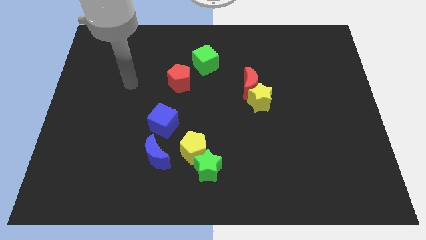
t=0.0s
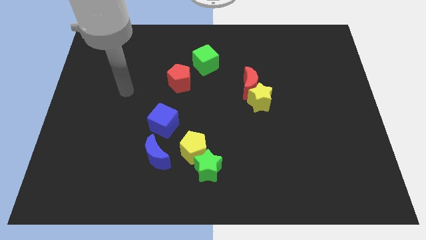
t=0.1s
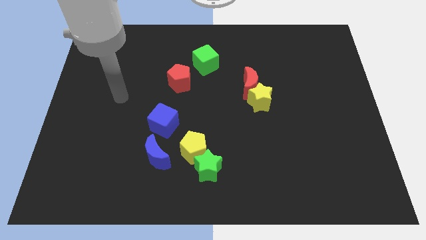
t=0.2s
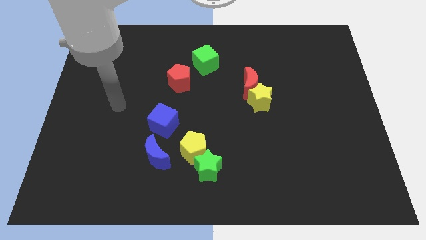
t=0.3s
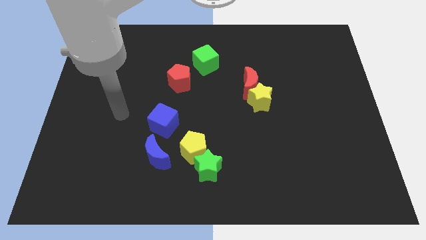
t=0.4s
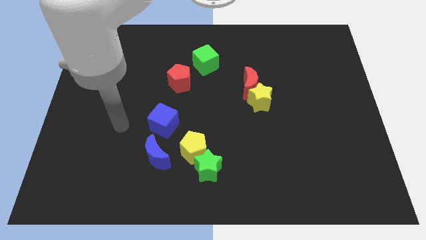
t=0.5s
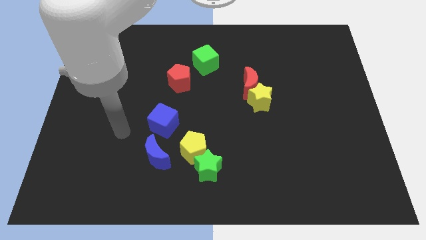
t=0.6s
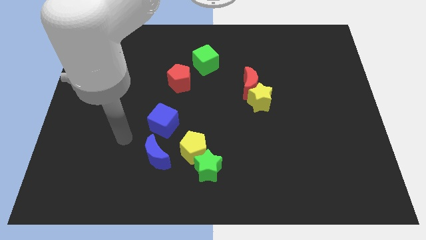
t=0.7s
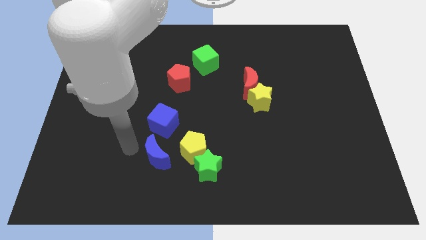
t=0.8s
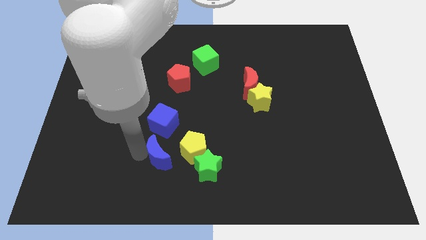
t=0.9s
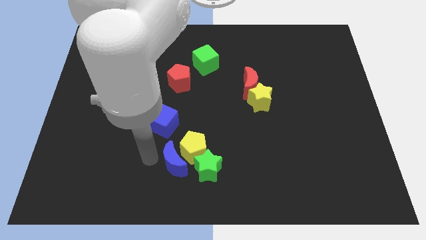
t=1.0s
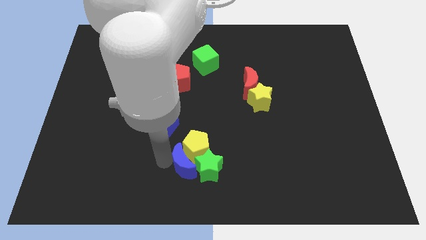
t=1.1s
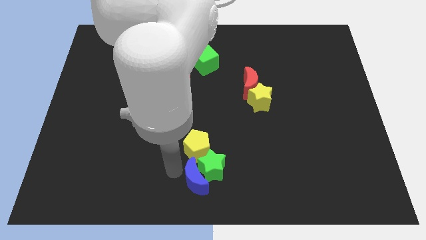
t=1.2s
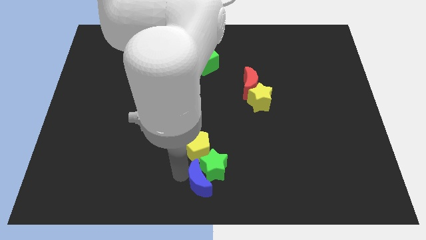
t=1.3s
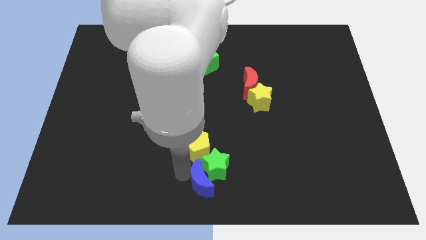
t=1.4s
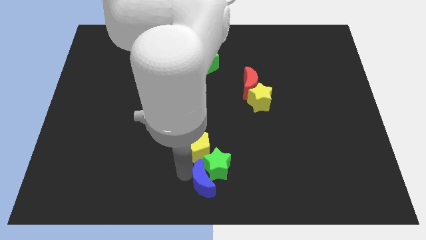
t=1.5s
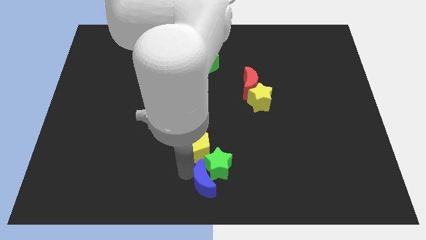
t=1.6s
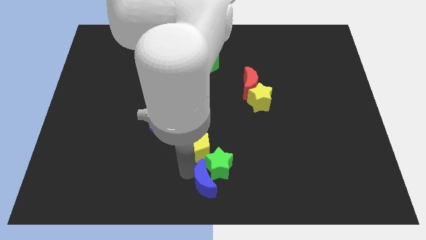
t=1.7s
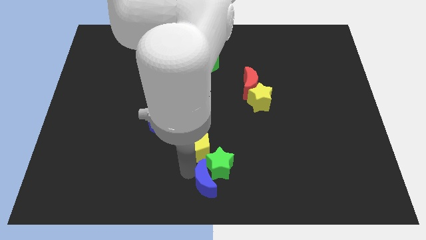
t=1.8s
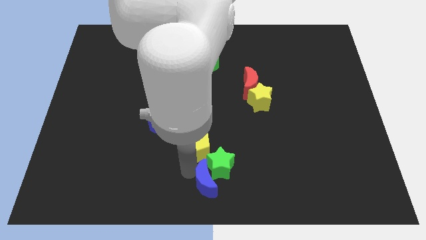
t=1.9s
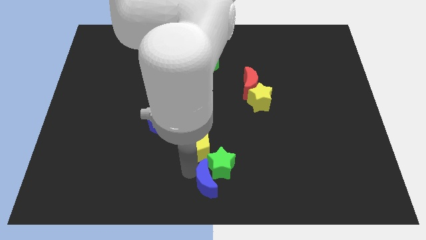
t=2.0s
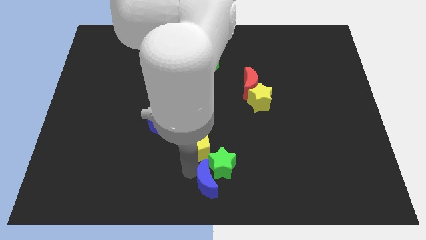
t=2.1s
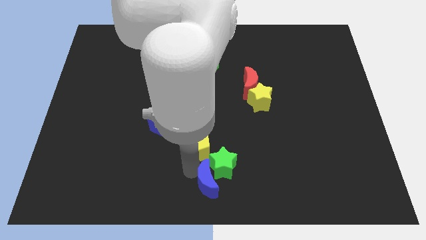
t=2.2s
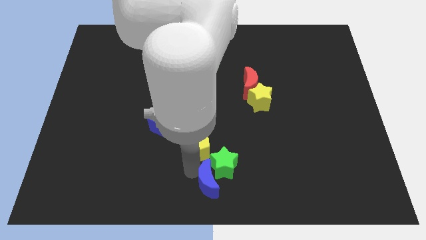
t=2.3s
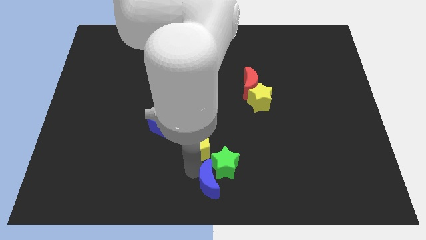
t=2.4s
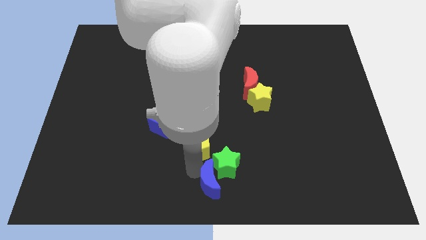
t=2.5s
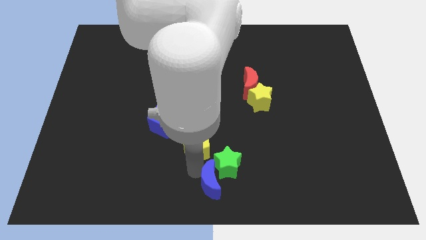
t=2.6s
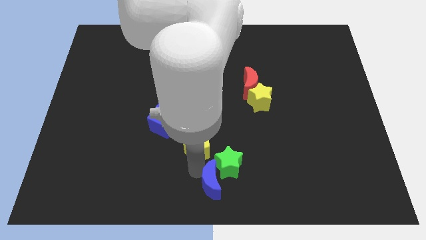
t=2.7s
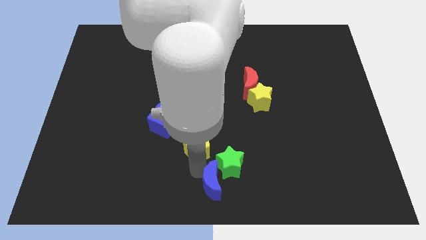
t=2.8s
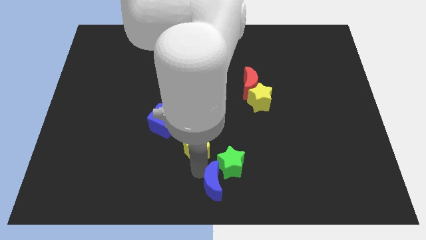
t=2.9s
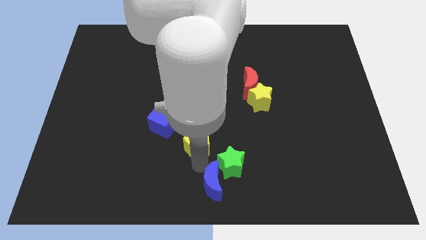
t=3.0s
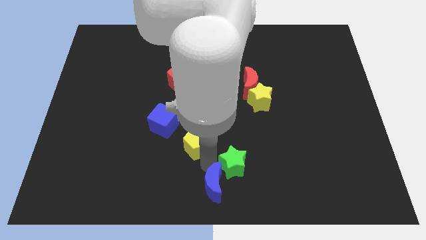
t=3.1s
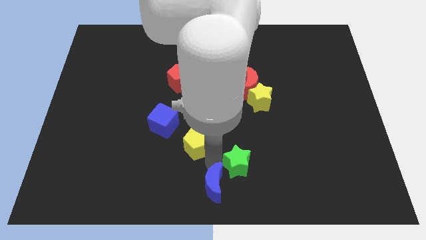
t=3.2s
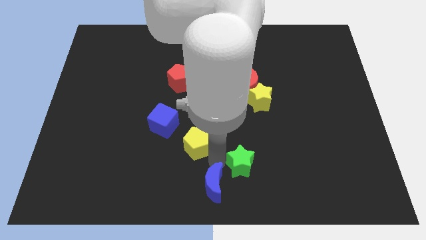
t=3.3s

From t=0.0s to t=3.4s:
push the green star a bit right

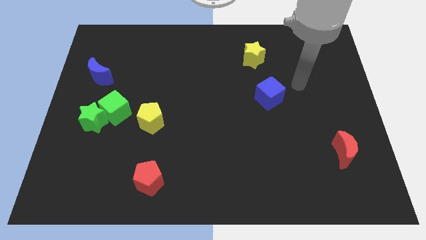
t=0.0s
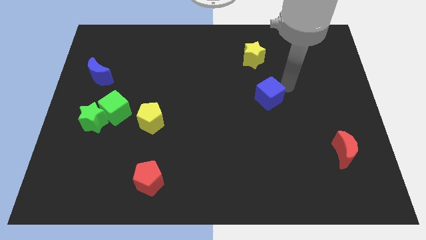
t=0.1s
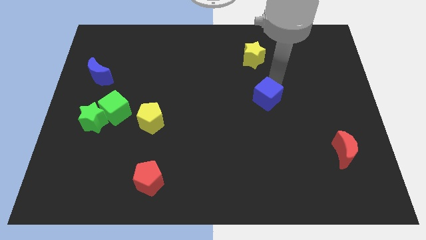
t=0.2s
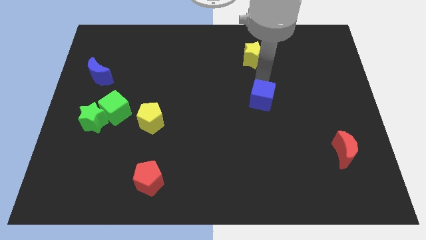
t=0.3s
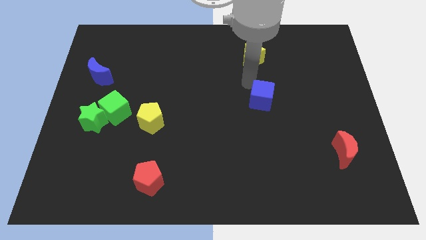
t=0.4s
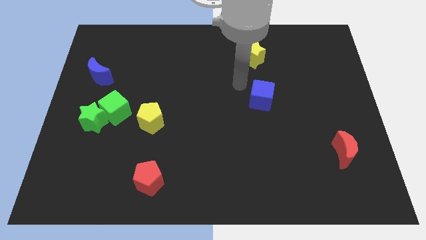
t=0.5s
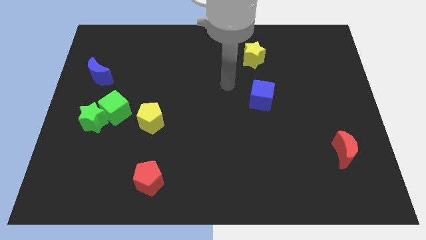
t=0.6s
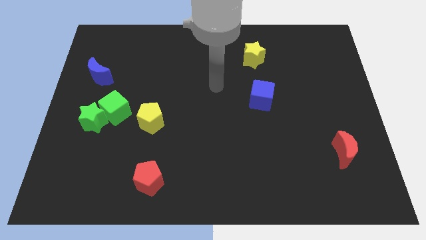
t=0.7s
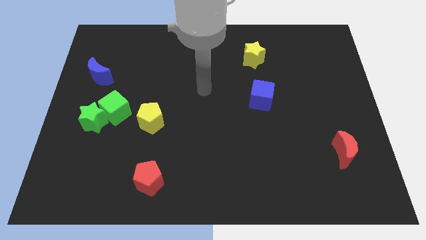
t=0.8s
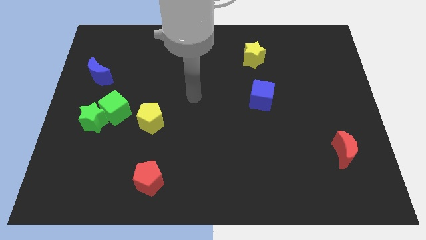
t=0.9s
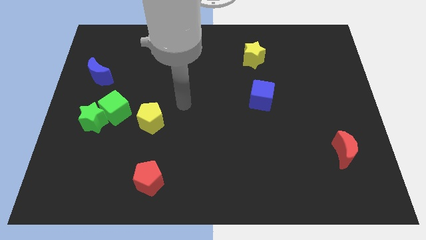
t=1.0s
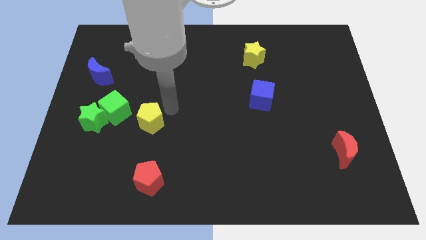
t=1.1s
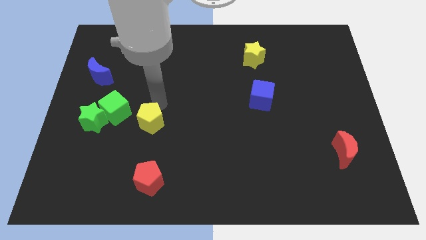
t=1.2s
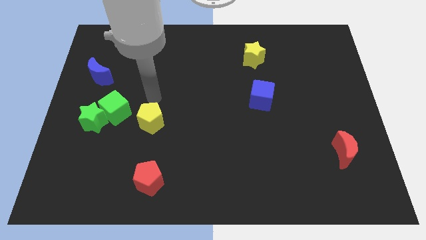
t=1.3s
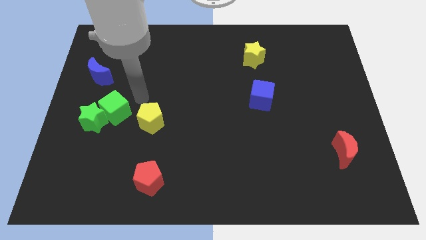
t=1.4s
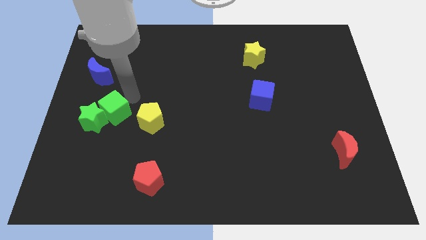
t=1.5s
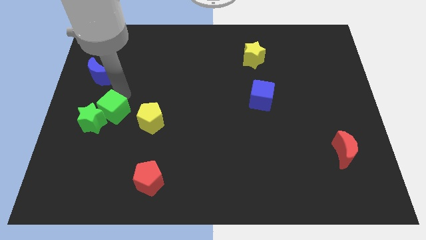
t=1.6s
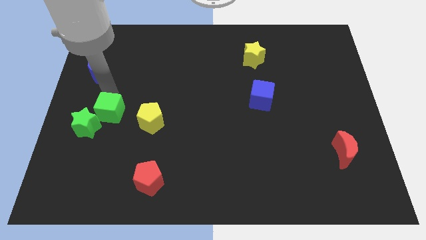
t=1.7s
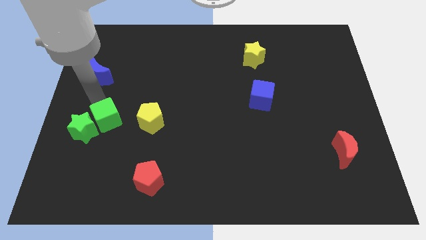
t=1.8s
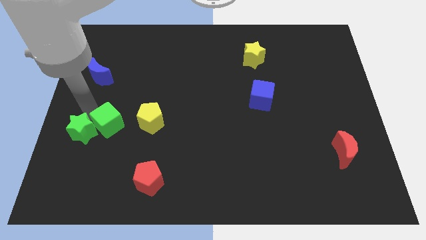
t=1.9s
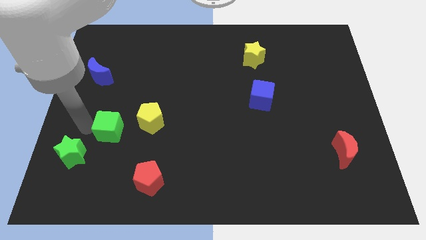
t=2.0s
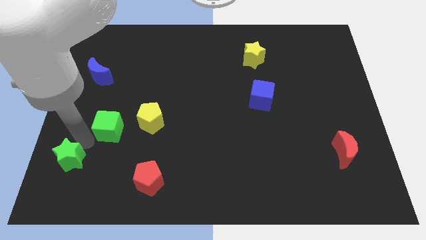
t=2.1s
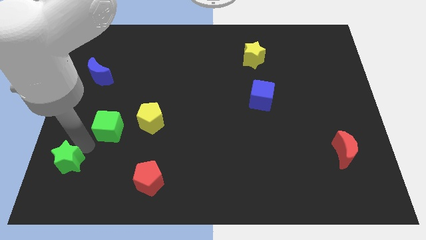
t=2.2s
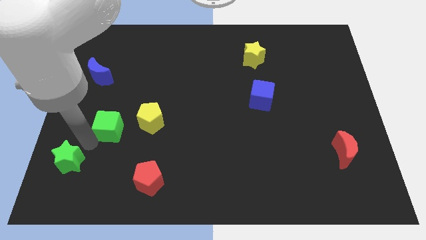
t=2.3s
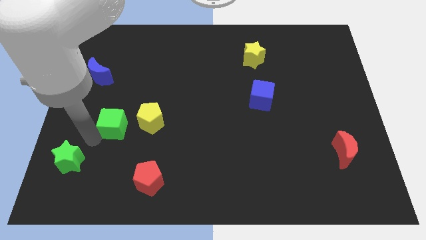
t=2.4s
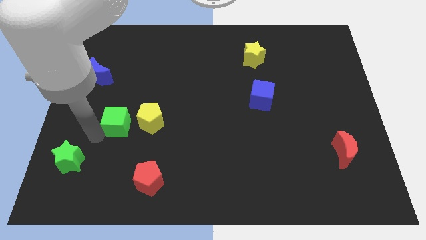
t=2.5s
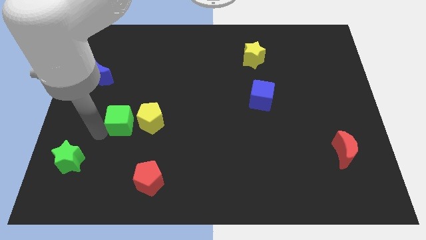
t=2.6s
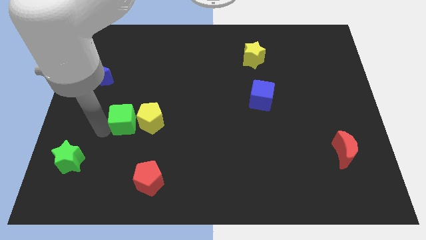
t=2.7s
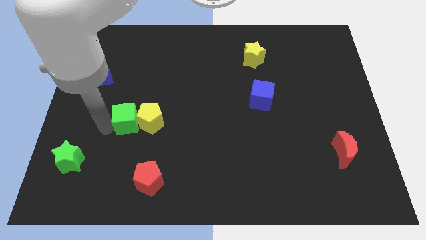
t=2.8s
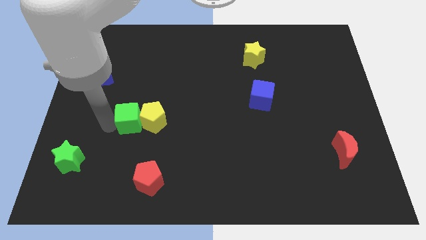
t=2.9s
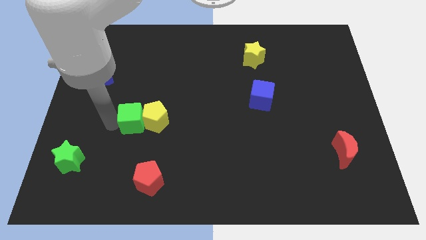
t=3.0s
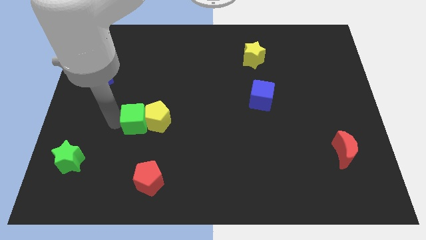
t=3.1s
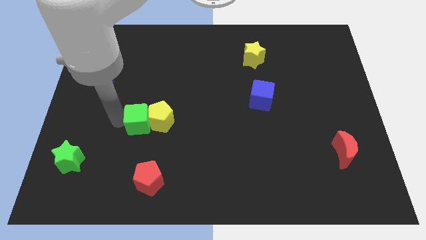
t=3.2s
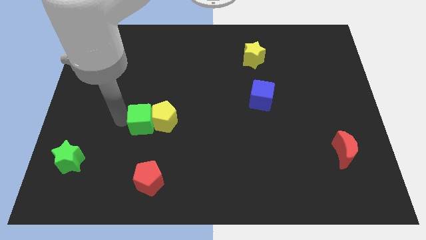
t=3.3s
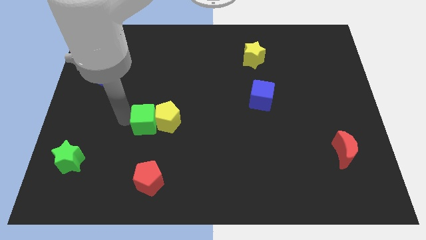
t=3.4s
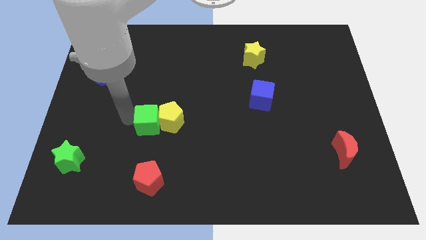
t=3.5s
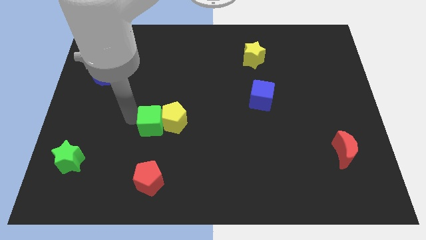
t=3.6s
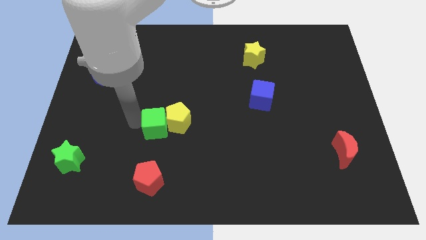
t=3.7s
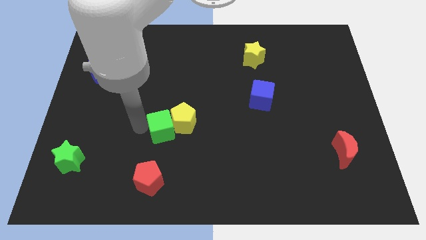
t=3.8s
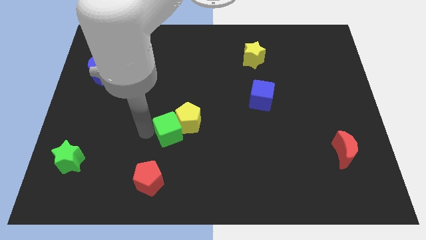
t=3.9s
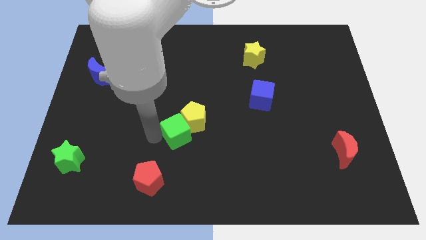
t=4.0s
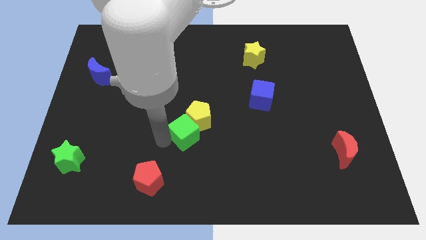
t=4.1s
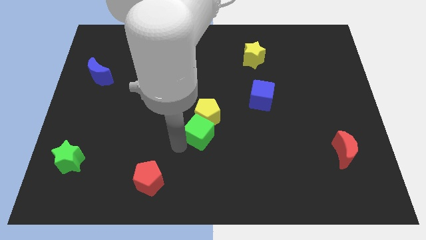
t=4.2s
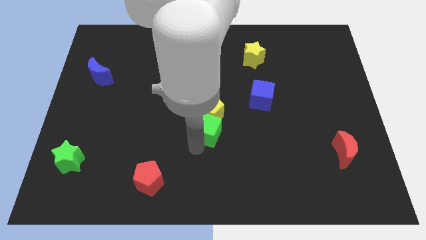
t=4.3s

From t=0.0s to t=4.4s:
push the green cube to the right

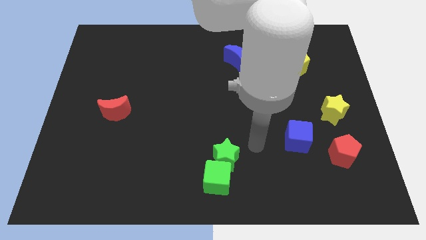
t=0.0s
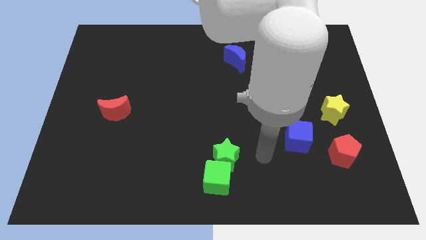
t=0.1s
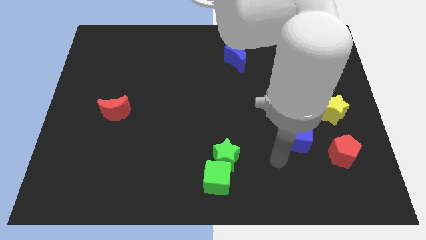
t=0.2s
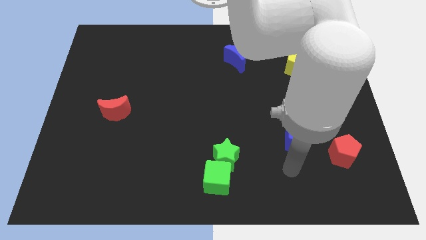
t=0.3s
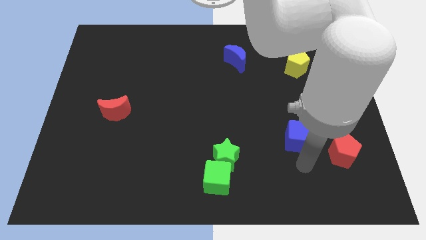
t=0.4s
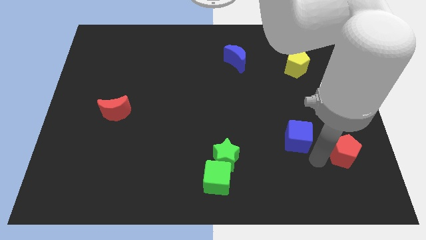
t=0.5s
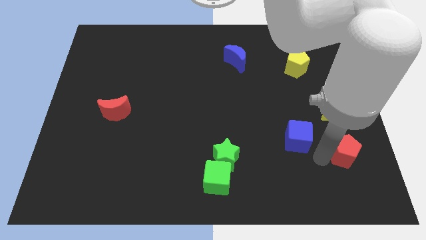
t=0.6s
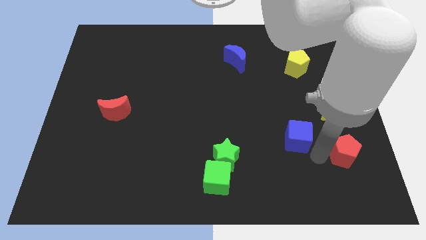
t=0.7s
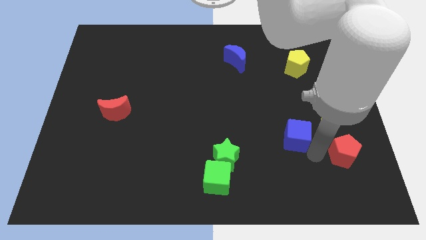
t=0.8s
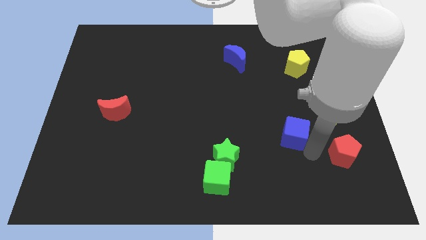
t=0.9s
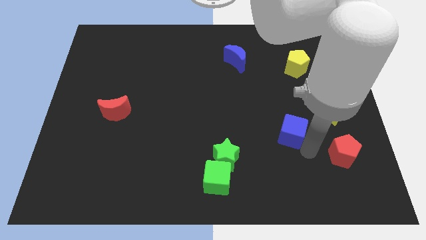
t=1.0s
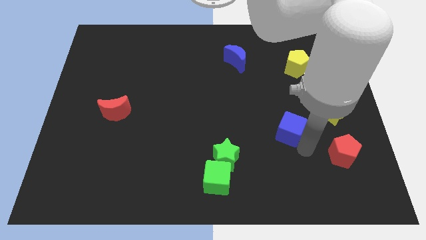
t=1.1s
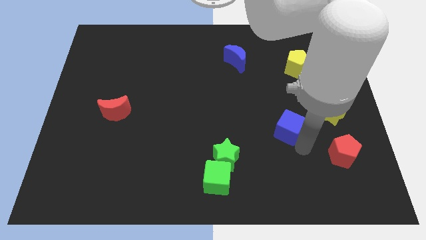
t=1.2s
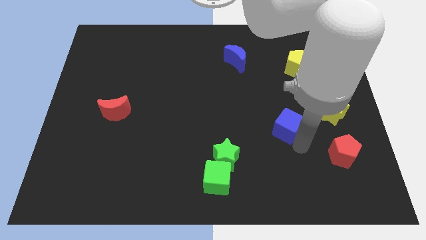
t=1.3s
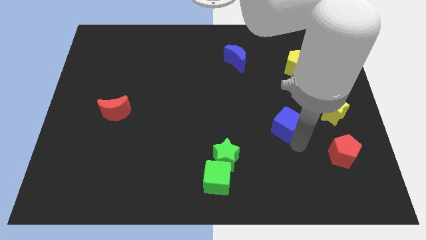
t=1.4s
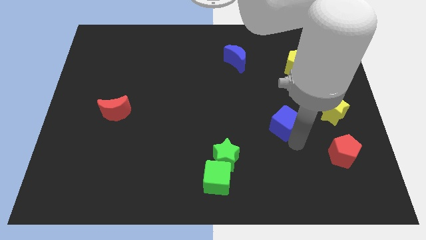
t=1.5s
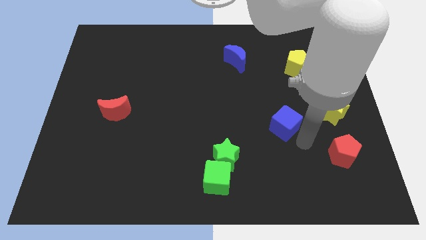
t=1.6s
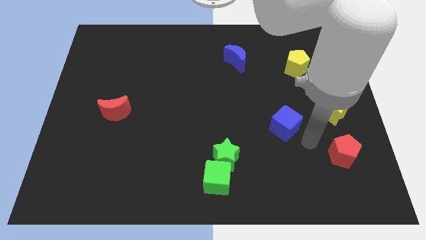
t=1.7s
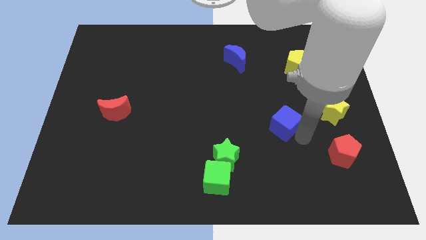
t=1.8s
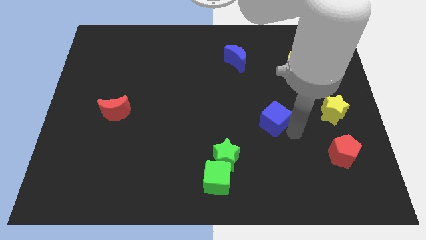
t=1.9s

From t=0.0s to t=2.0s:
slightly move the blue cube up and to the left
